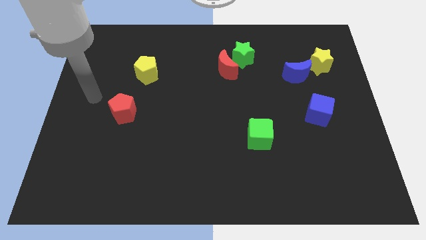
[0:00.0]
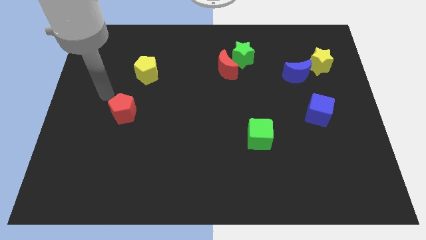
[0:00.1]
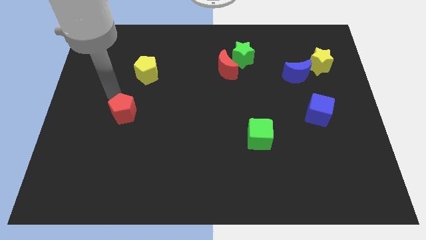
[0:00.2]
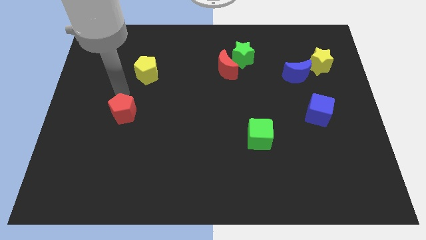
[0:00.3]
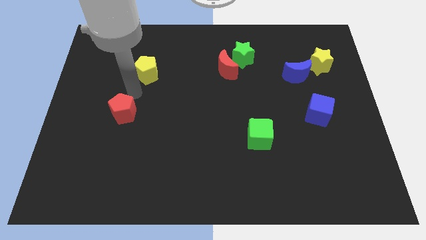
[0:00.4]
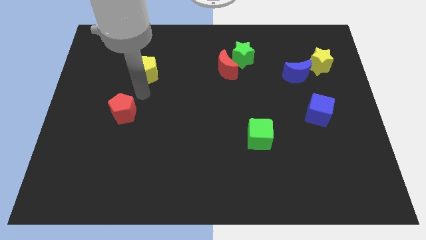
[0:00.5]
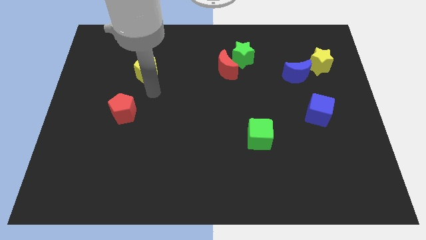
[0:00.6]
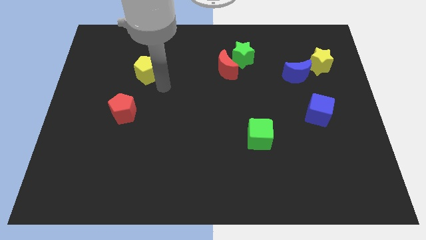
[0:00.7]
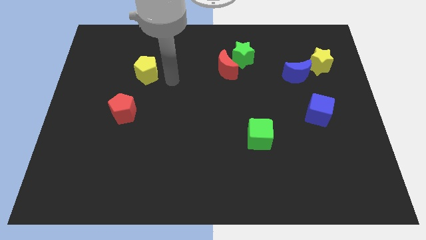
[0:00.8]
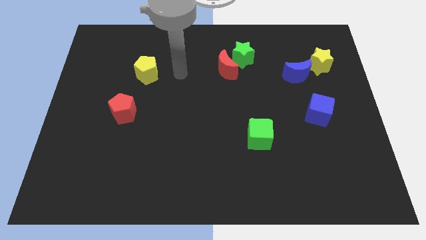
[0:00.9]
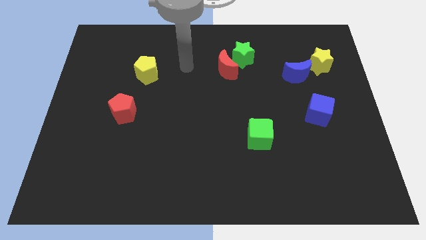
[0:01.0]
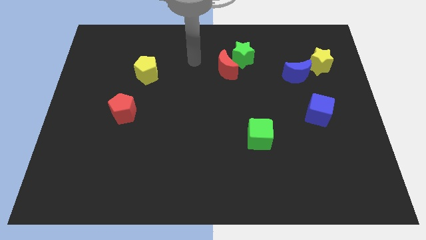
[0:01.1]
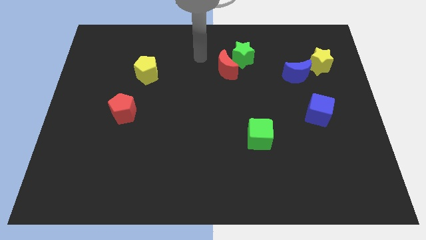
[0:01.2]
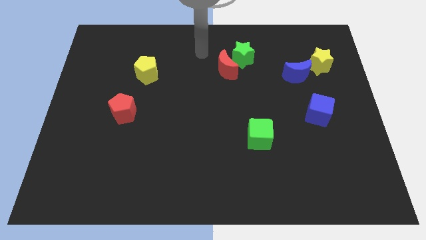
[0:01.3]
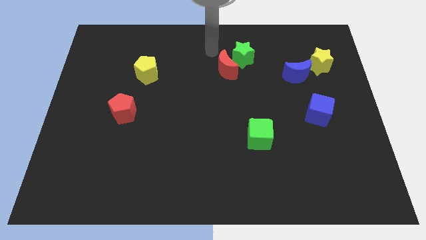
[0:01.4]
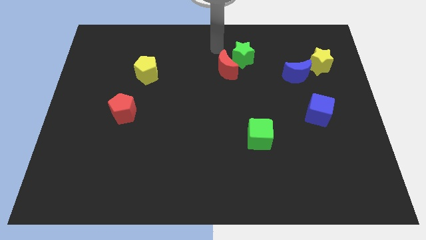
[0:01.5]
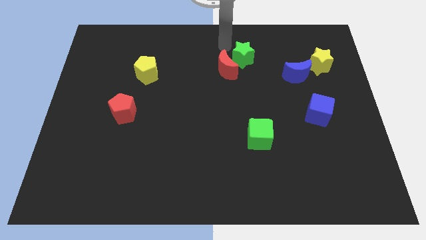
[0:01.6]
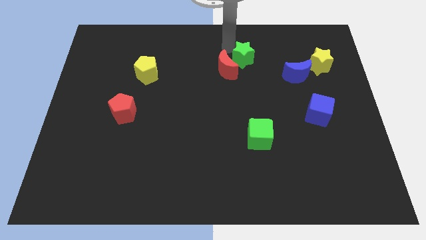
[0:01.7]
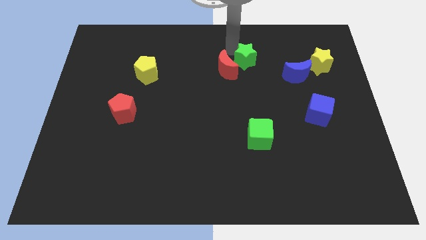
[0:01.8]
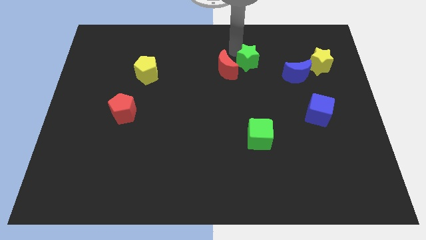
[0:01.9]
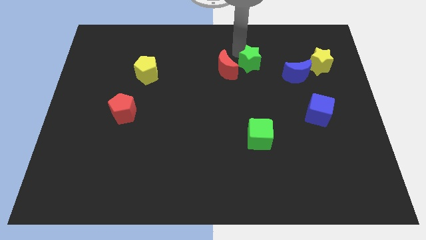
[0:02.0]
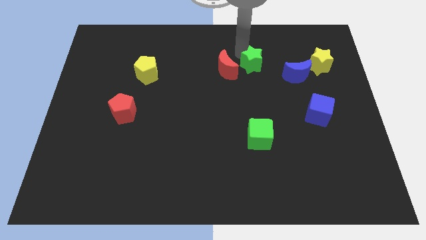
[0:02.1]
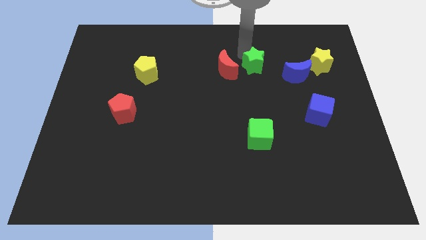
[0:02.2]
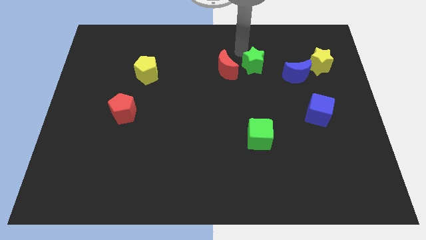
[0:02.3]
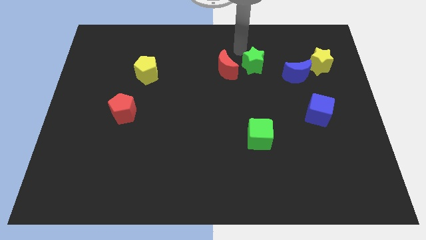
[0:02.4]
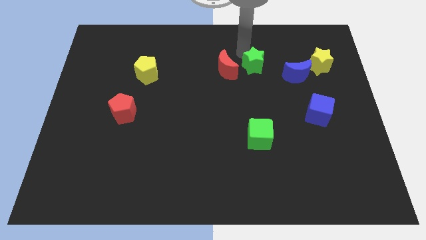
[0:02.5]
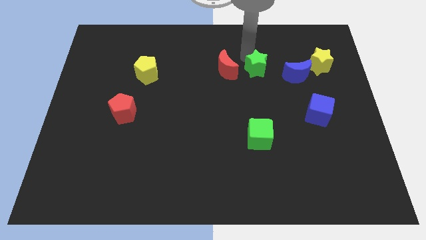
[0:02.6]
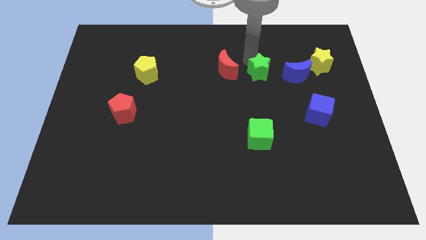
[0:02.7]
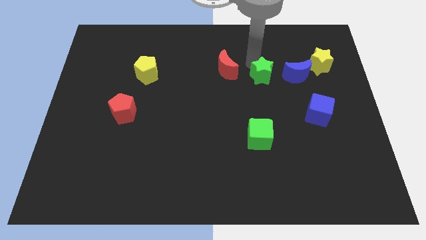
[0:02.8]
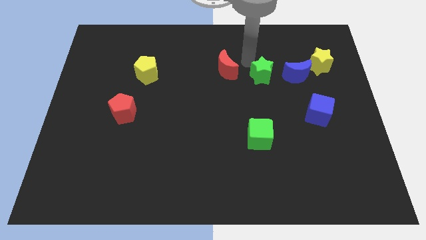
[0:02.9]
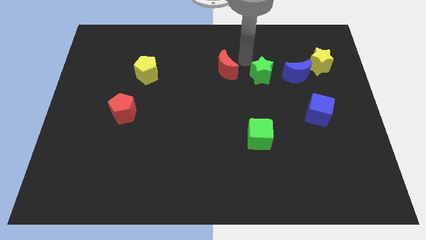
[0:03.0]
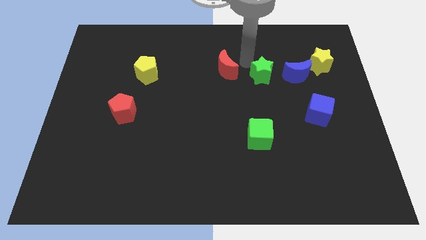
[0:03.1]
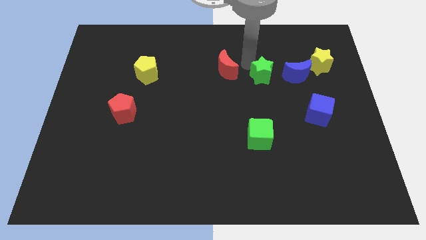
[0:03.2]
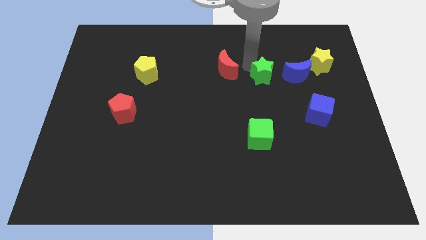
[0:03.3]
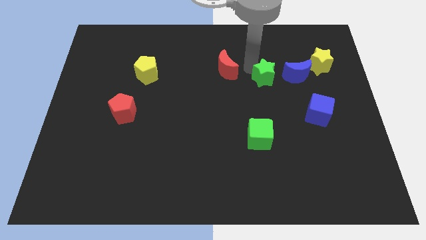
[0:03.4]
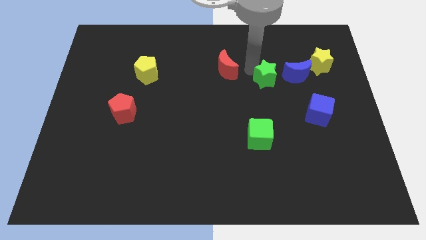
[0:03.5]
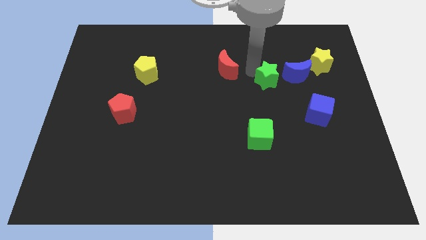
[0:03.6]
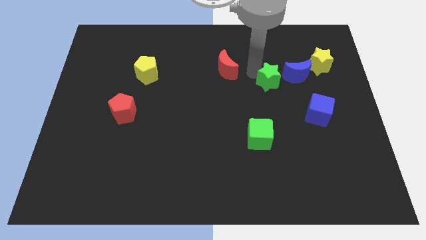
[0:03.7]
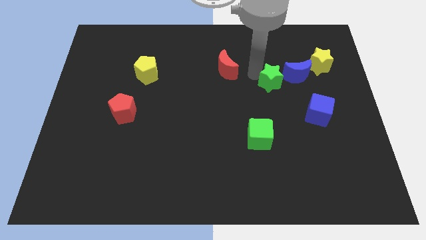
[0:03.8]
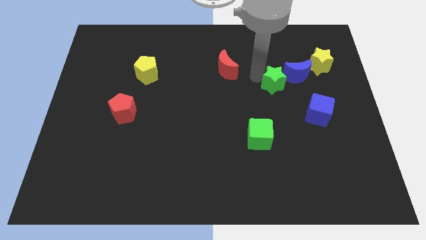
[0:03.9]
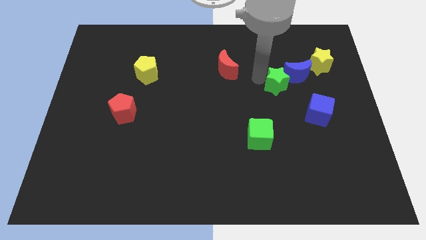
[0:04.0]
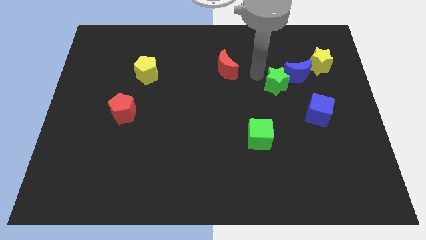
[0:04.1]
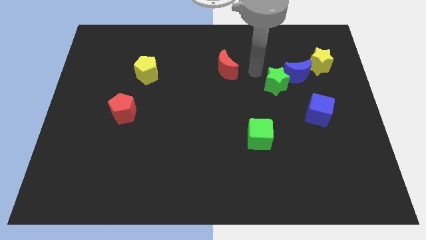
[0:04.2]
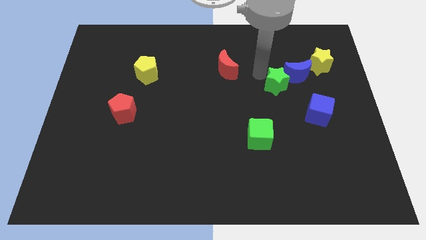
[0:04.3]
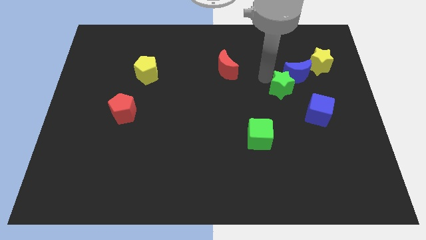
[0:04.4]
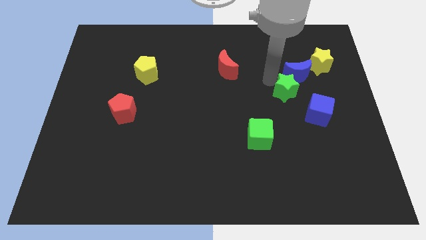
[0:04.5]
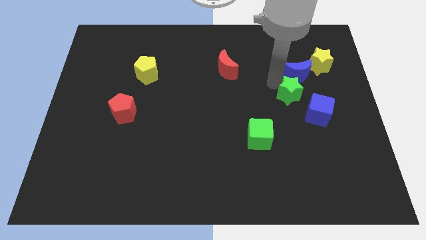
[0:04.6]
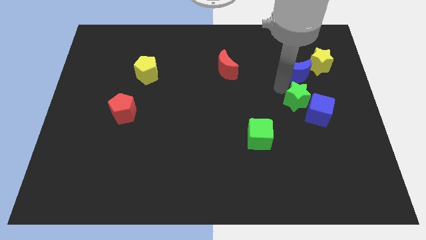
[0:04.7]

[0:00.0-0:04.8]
move the green star to the blue cube

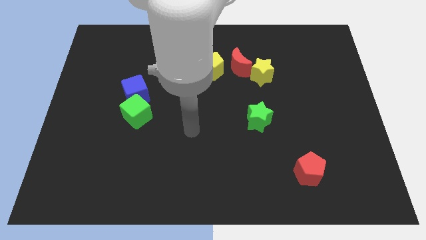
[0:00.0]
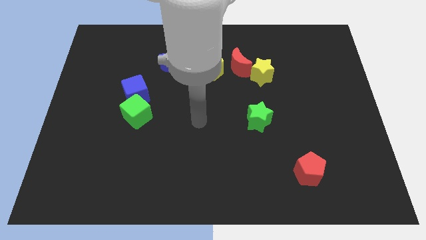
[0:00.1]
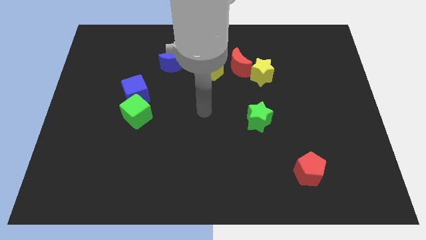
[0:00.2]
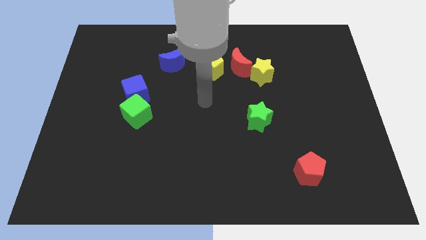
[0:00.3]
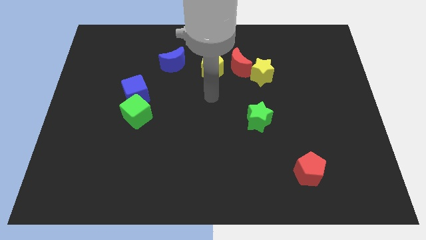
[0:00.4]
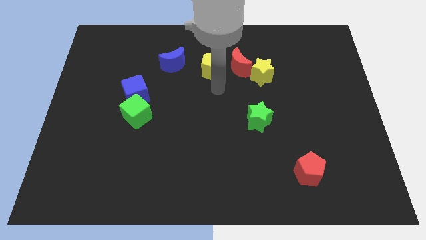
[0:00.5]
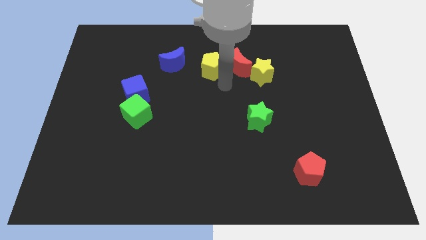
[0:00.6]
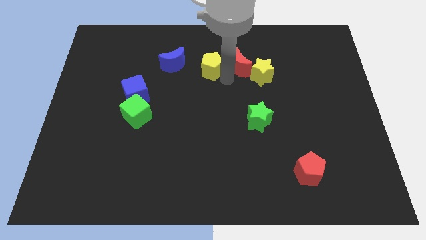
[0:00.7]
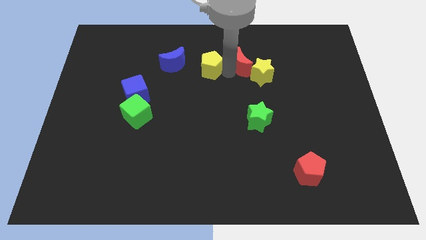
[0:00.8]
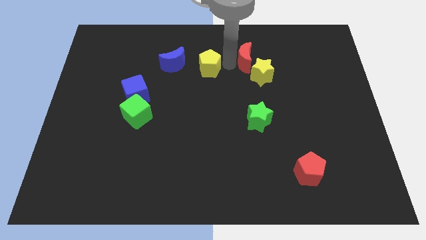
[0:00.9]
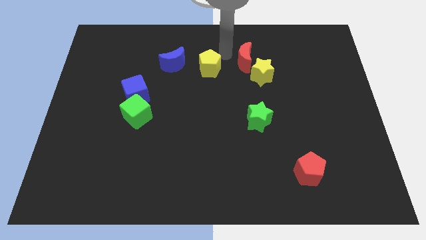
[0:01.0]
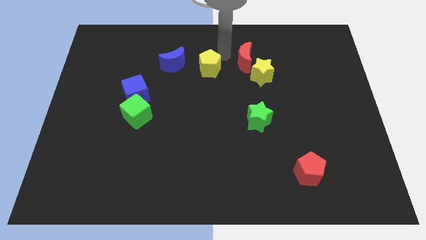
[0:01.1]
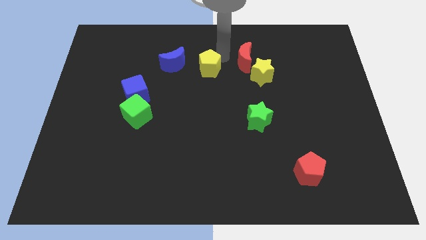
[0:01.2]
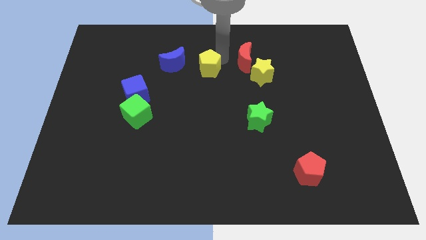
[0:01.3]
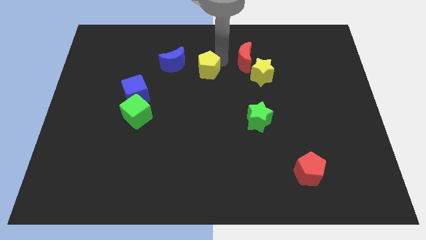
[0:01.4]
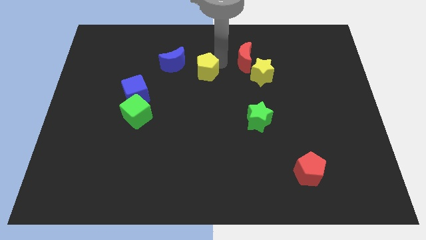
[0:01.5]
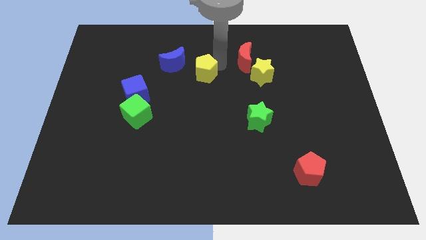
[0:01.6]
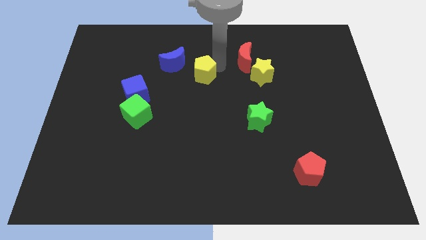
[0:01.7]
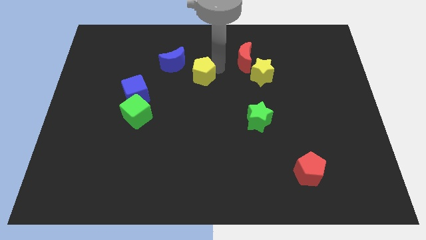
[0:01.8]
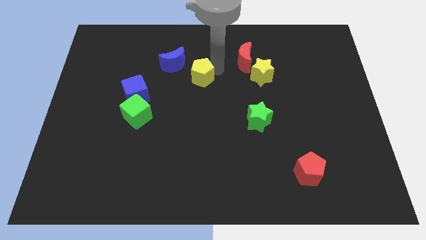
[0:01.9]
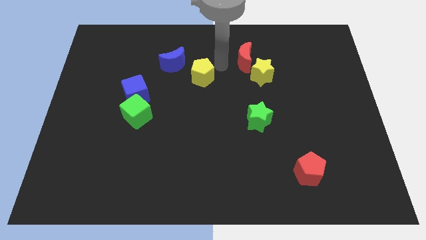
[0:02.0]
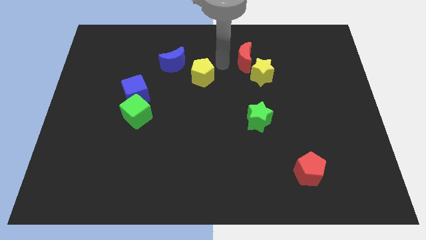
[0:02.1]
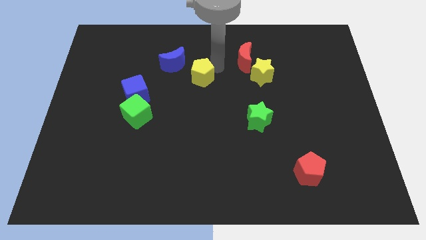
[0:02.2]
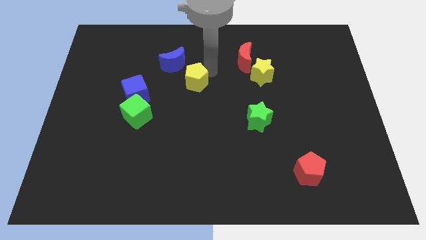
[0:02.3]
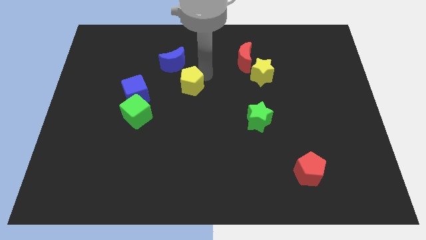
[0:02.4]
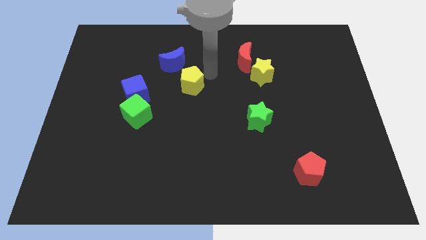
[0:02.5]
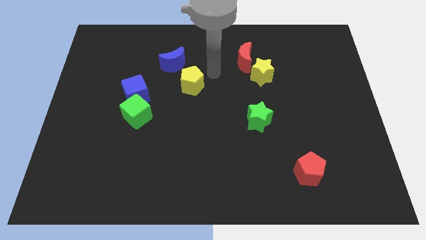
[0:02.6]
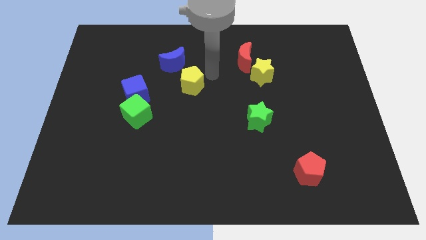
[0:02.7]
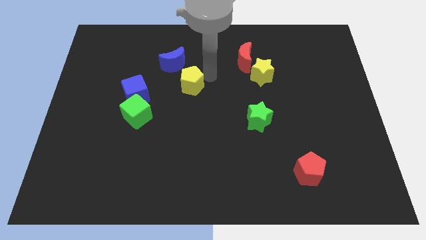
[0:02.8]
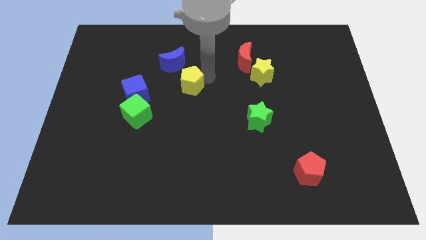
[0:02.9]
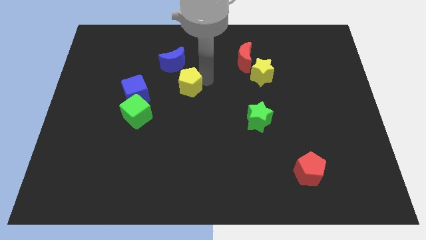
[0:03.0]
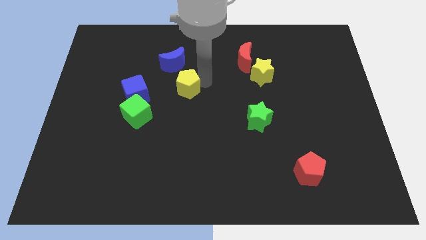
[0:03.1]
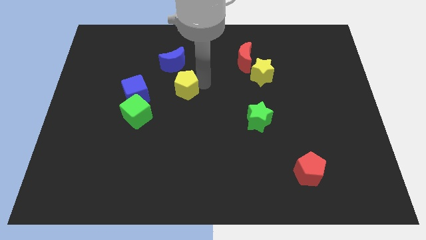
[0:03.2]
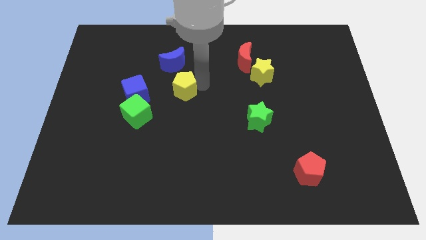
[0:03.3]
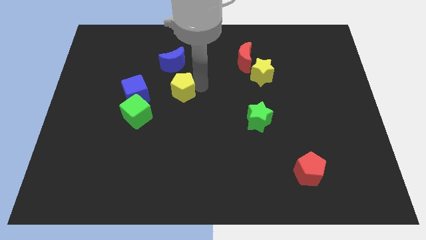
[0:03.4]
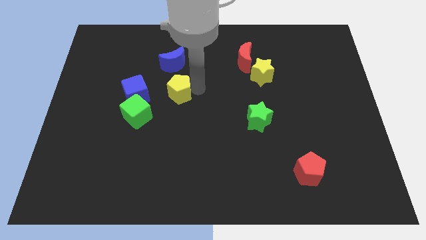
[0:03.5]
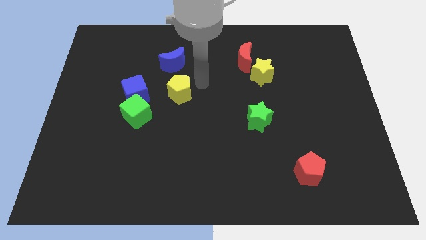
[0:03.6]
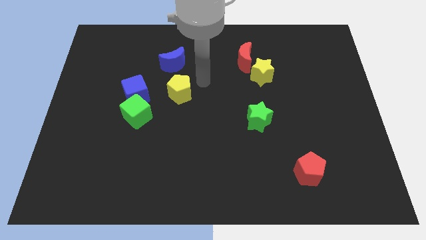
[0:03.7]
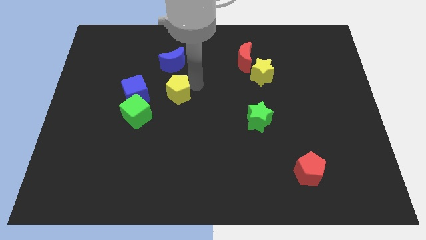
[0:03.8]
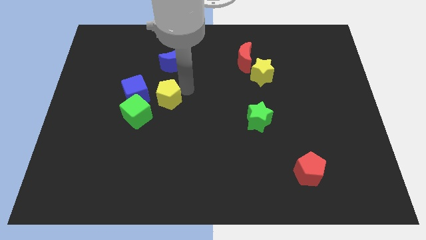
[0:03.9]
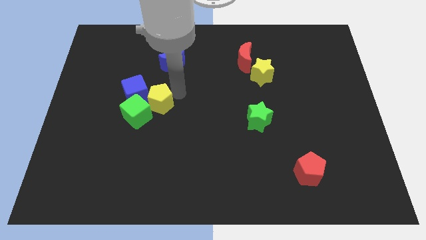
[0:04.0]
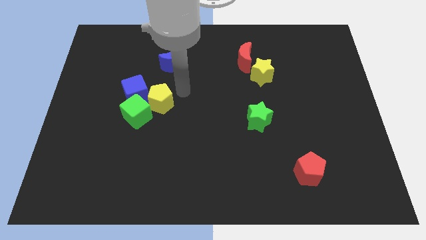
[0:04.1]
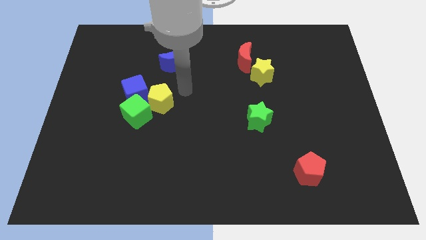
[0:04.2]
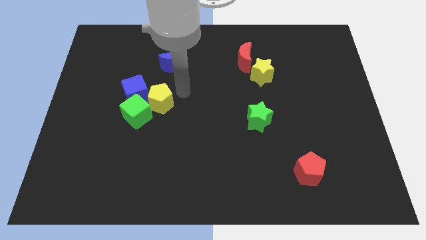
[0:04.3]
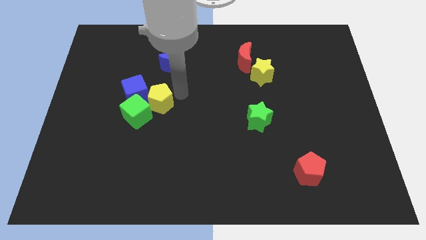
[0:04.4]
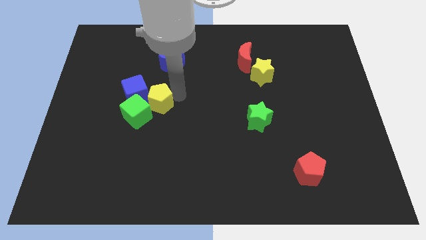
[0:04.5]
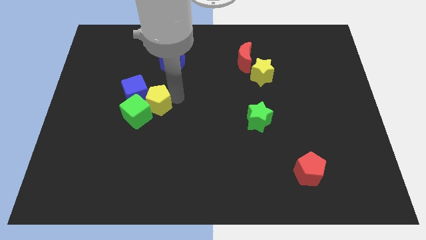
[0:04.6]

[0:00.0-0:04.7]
put the yellow pentagon next to the green cube
